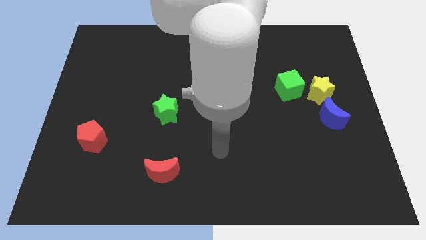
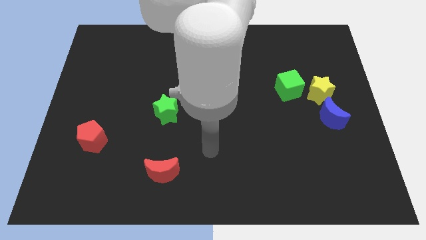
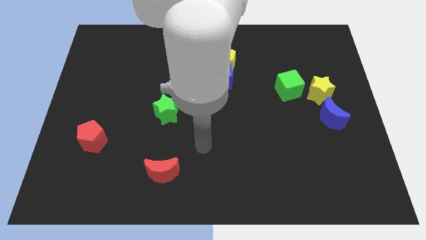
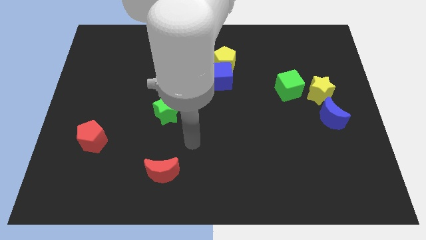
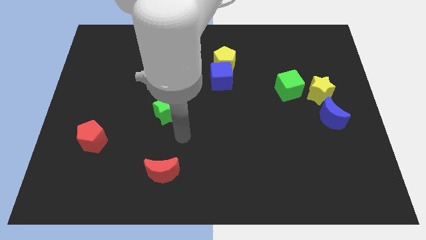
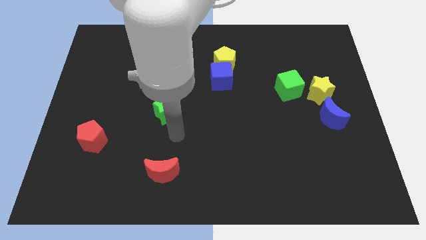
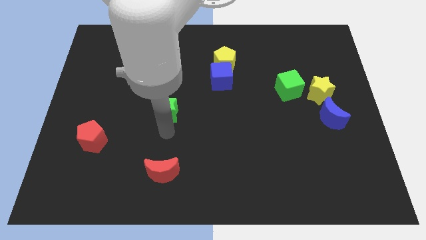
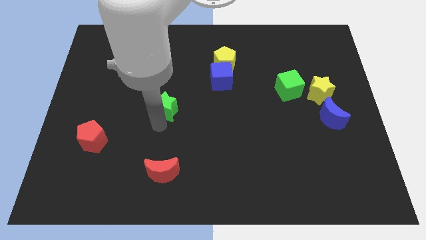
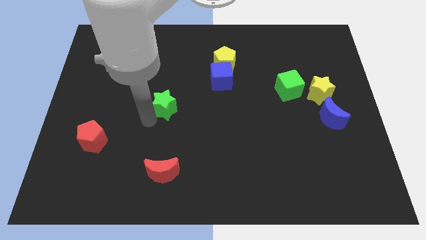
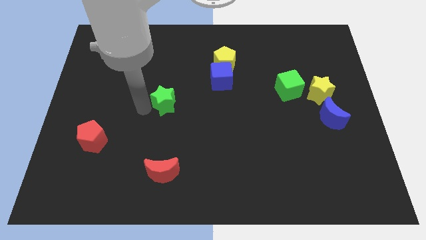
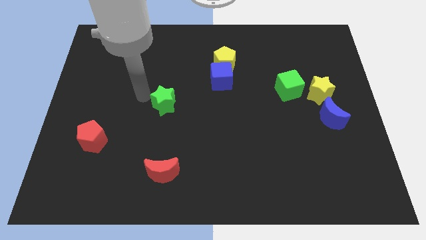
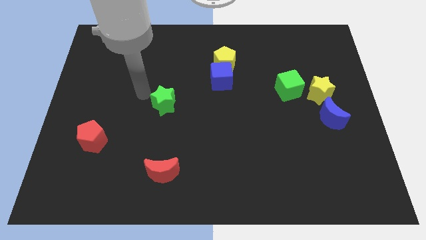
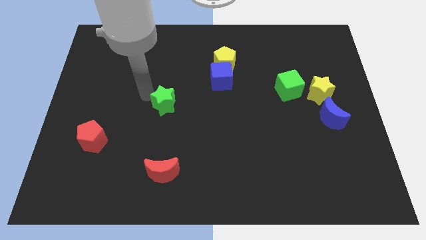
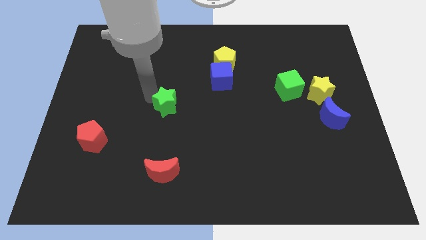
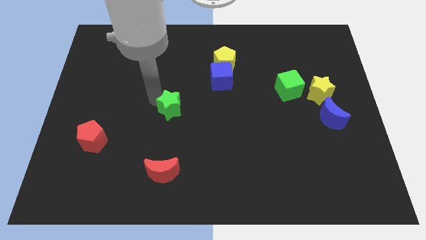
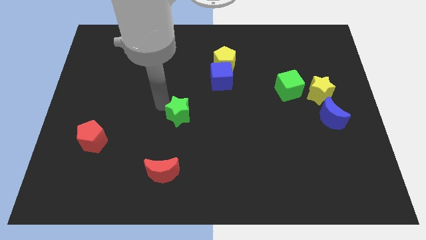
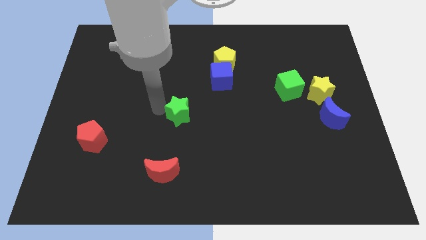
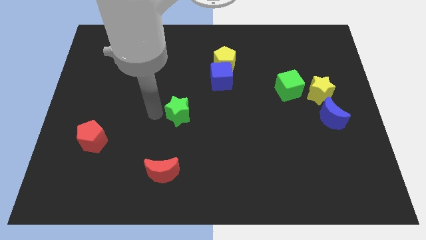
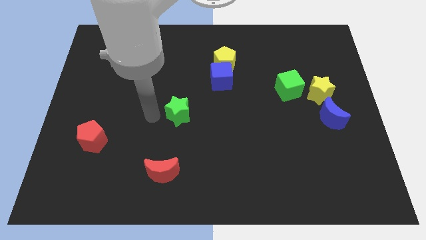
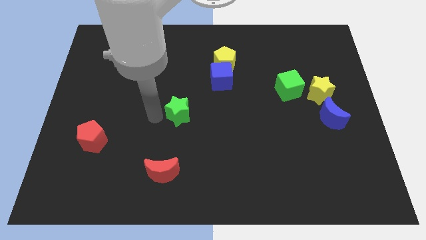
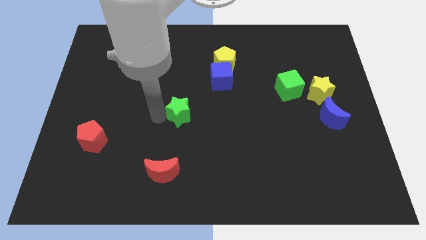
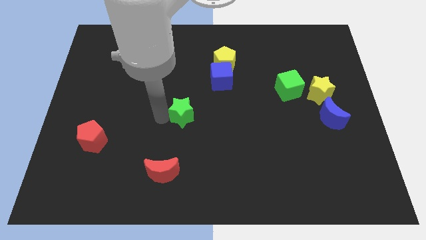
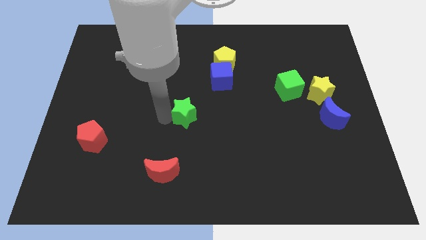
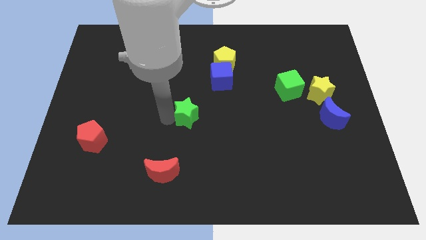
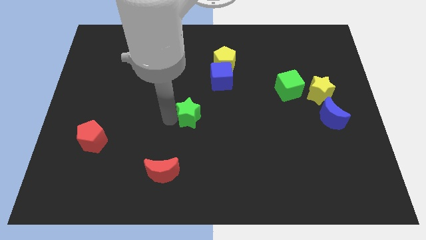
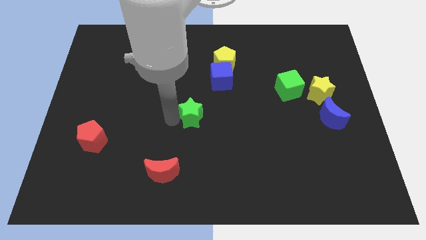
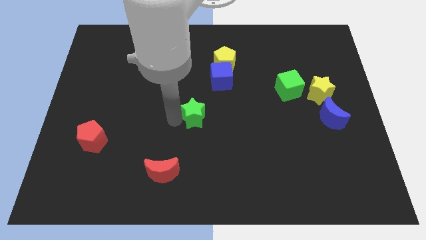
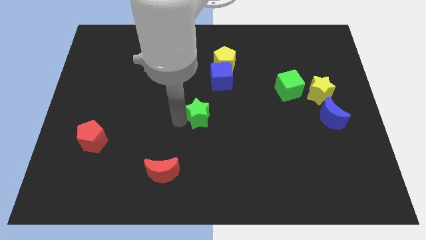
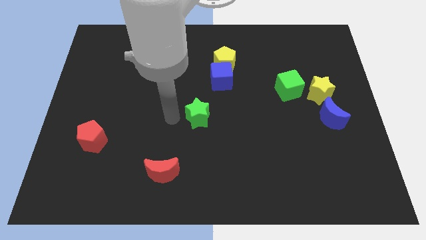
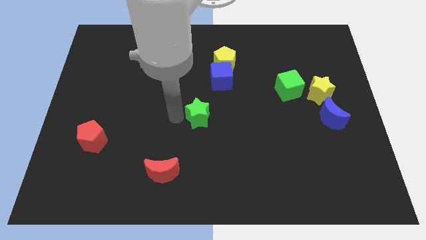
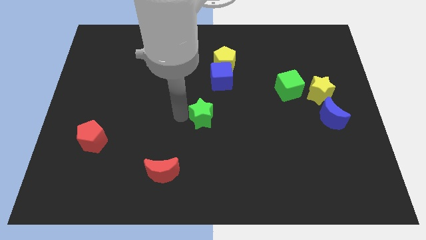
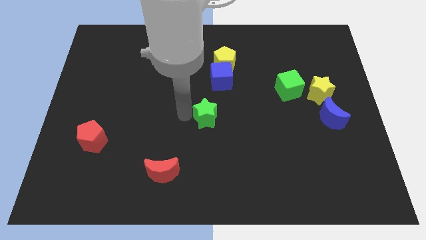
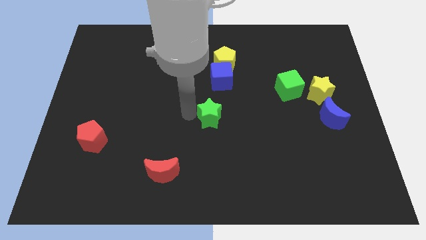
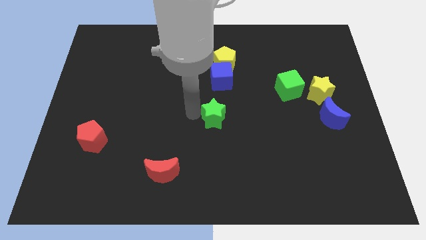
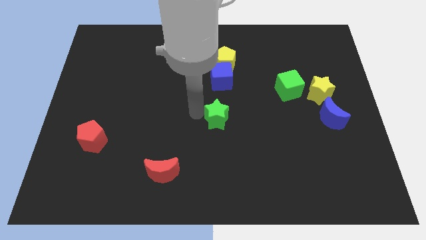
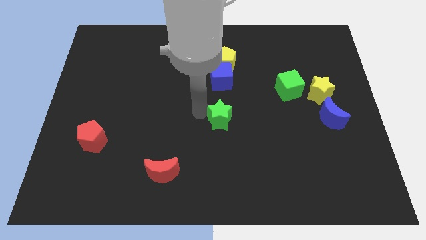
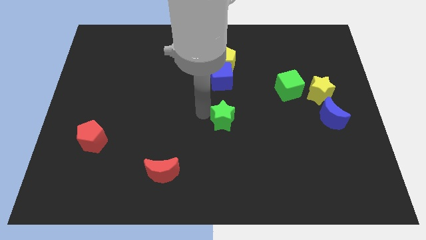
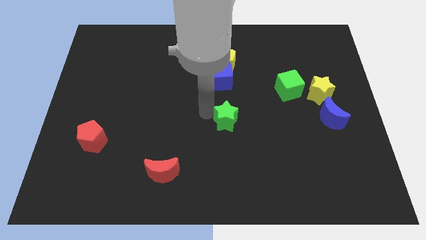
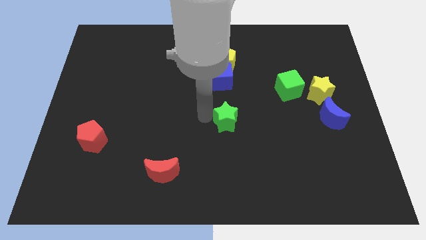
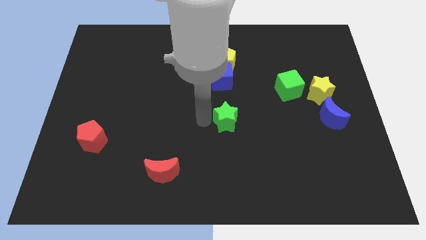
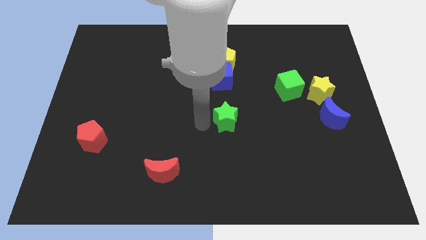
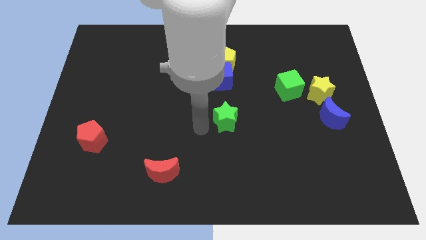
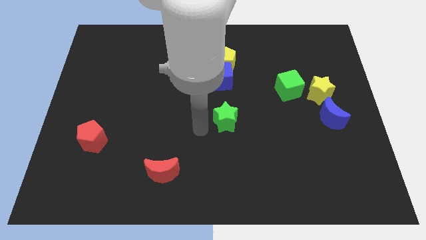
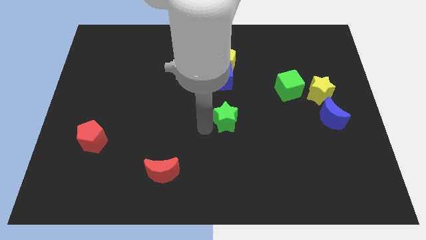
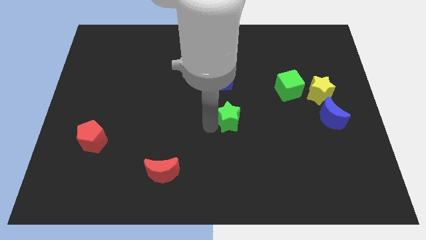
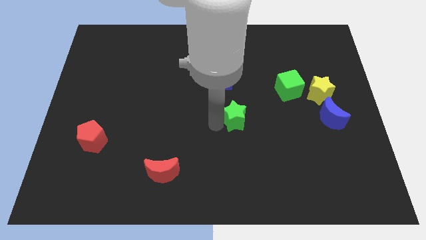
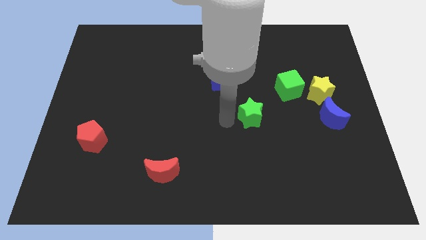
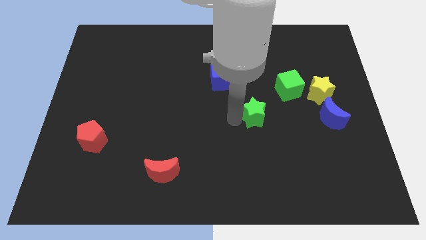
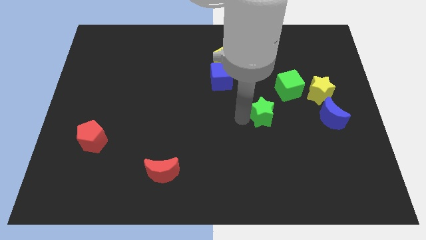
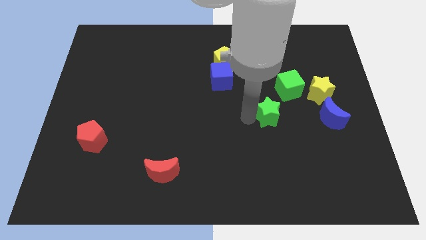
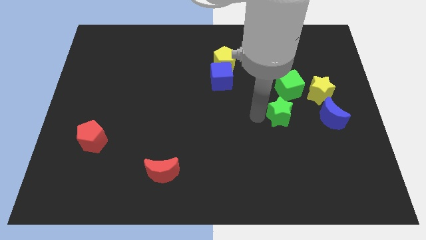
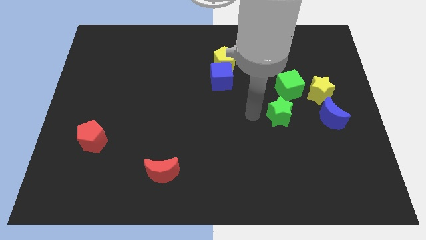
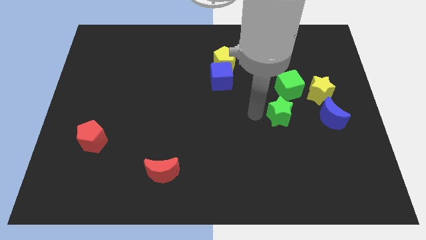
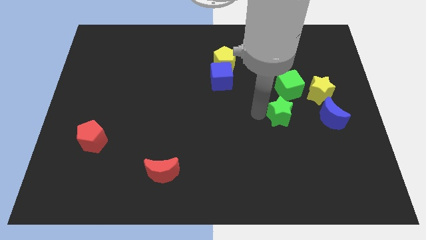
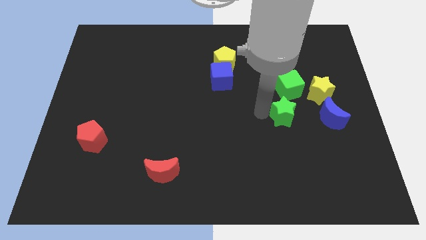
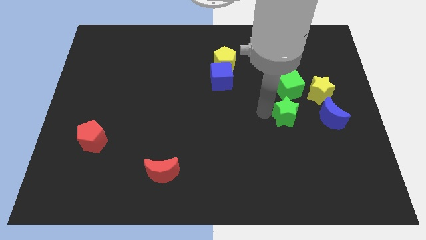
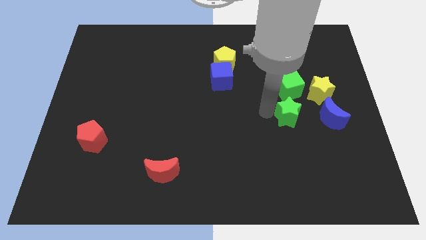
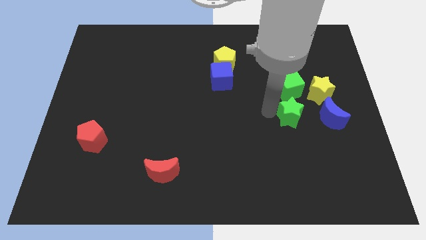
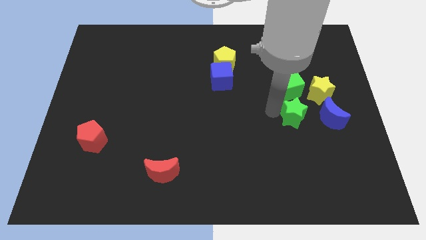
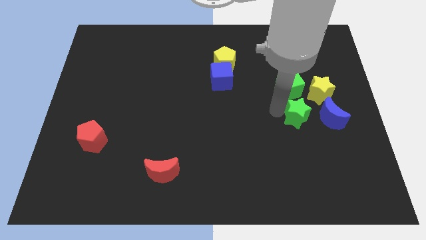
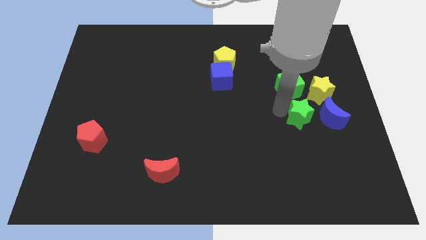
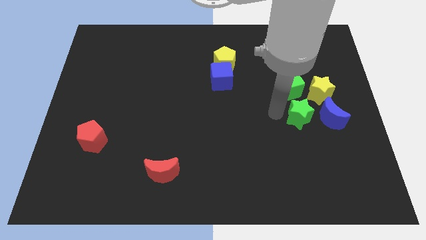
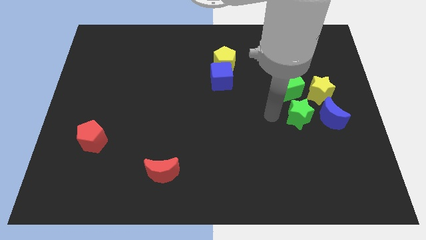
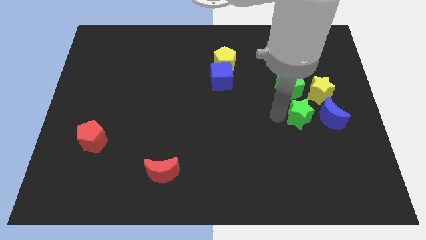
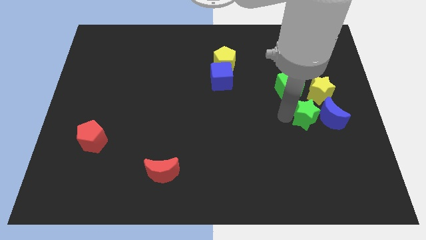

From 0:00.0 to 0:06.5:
slide the green star close to the blue moon

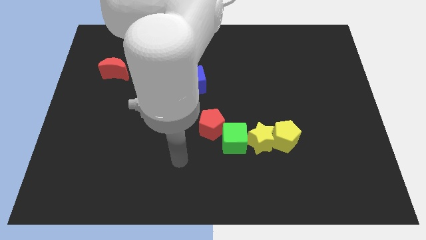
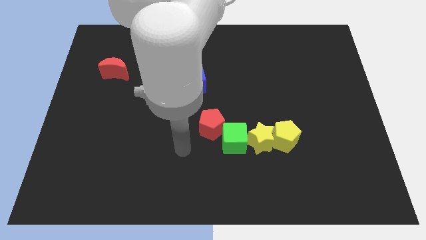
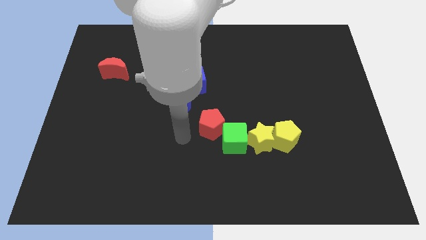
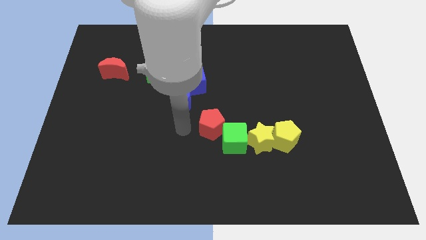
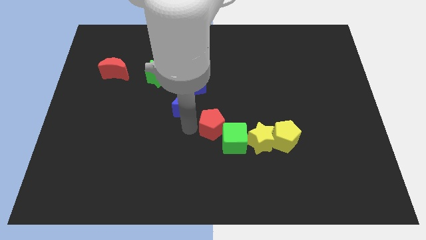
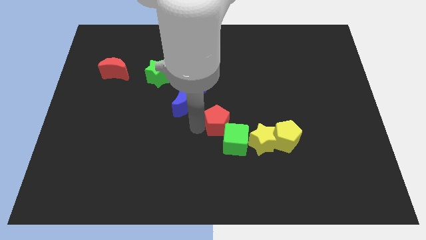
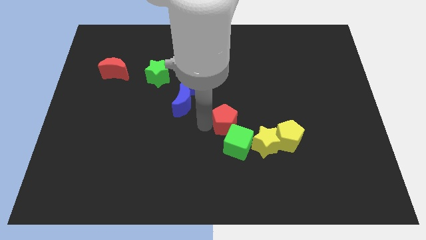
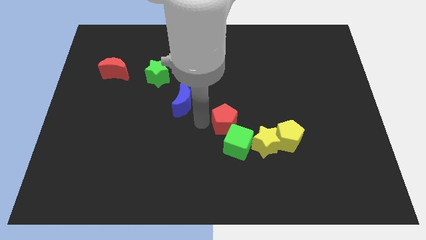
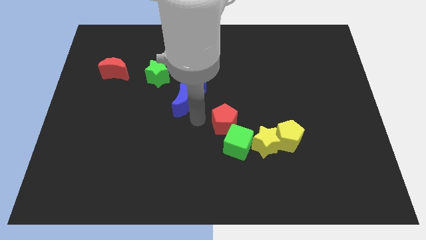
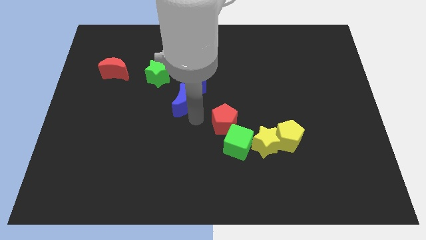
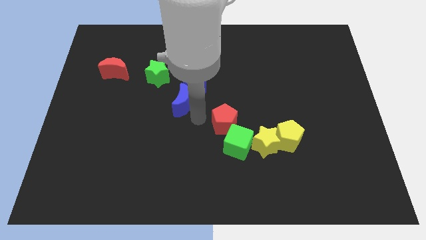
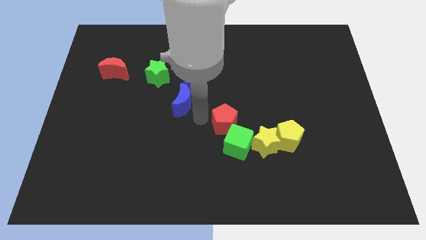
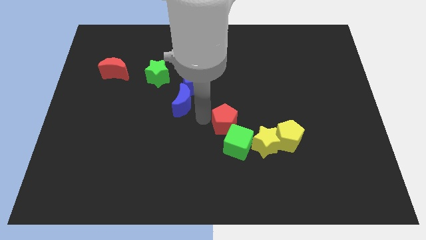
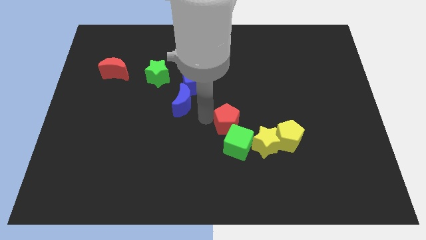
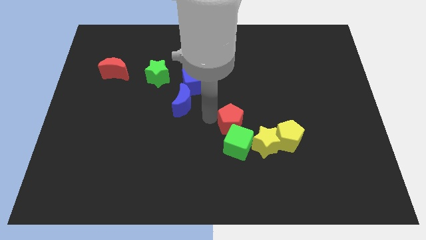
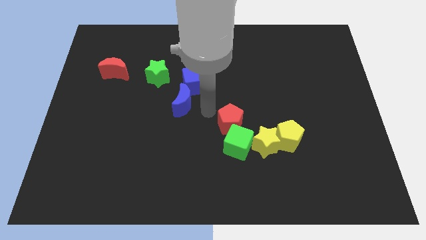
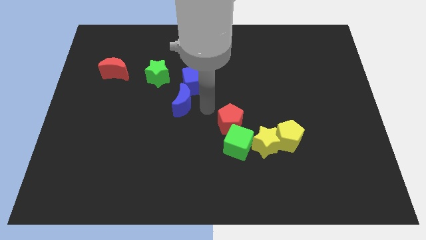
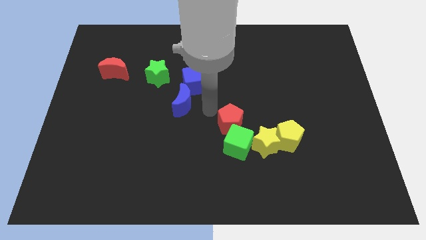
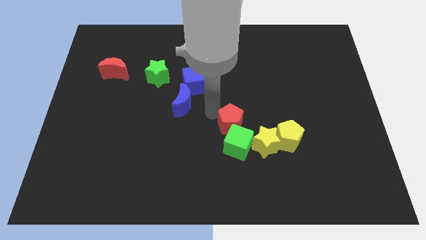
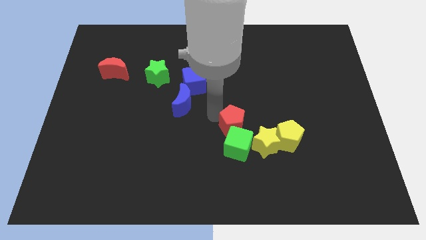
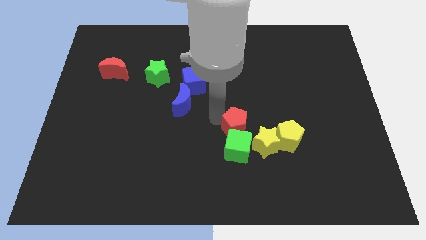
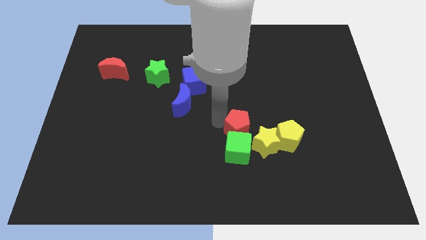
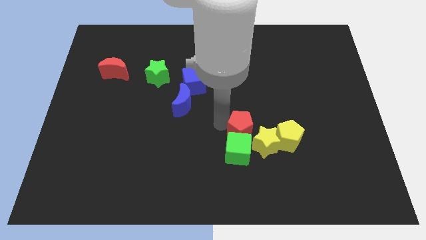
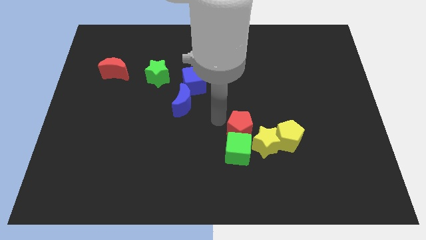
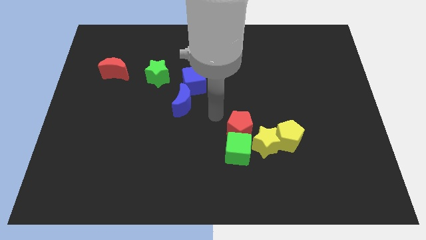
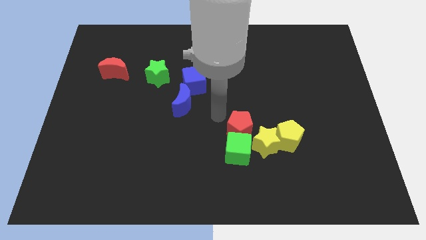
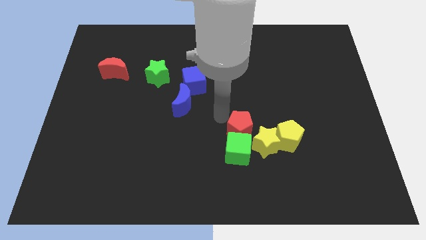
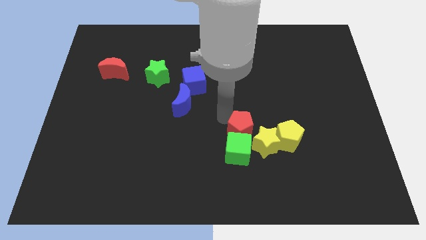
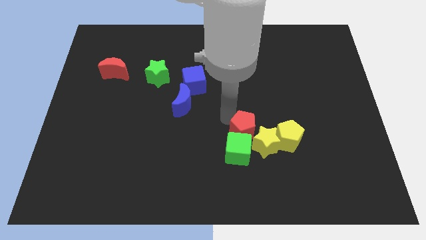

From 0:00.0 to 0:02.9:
move the red pentagon next to the yellow star
